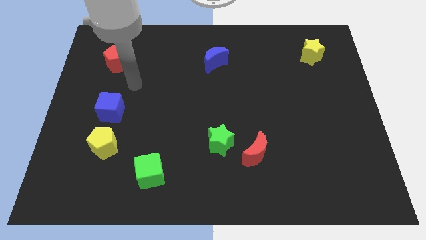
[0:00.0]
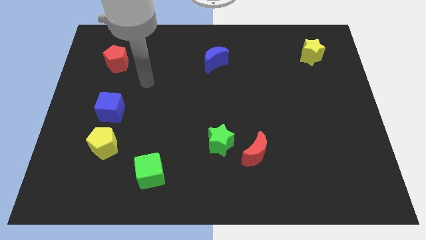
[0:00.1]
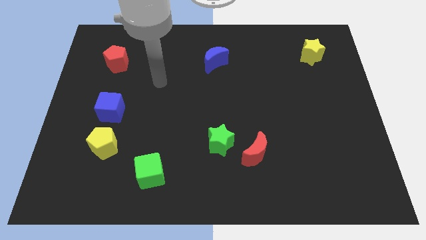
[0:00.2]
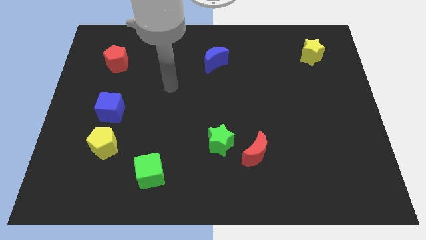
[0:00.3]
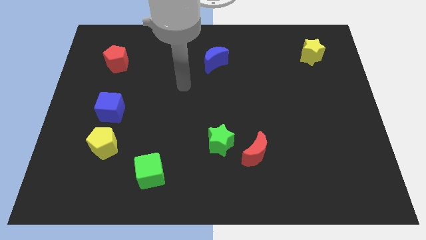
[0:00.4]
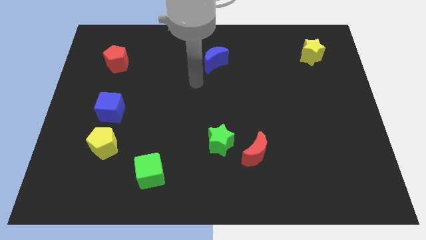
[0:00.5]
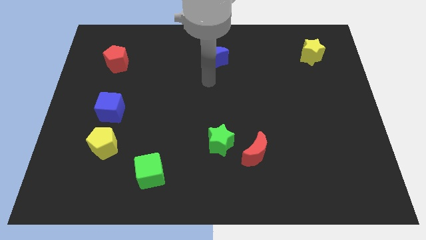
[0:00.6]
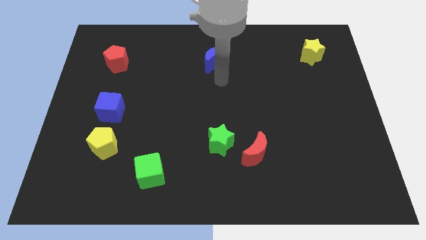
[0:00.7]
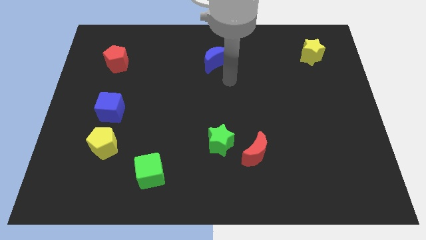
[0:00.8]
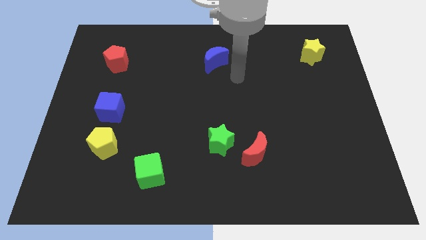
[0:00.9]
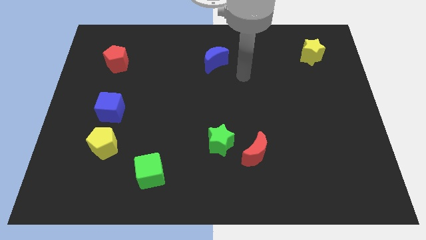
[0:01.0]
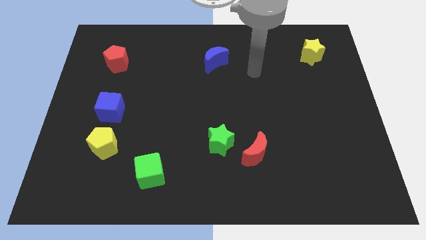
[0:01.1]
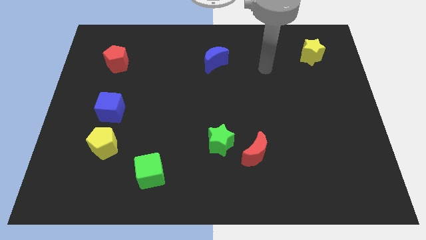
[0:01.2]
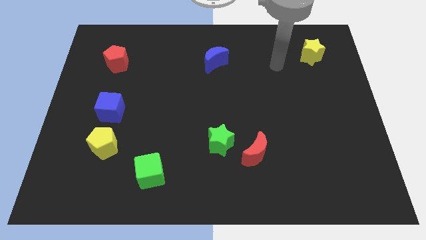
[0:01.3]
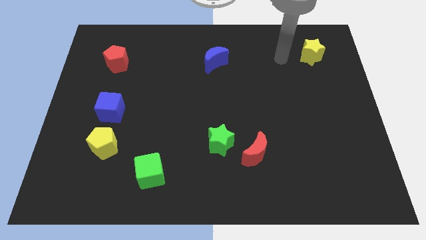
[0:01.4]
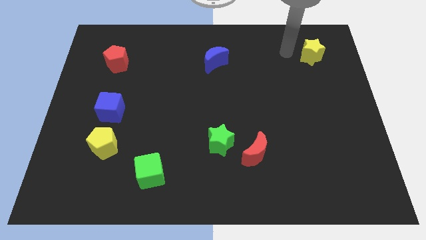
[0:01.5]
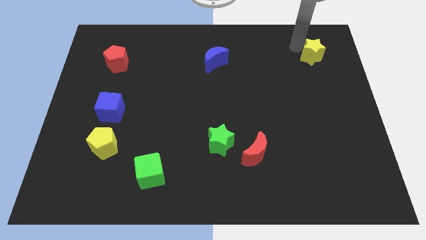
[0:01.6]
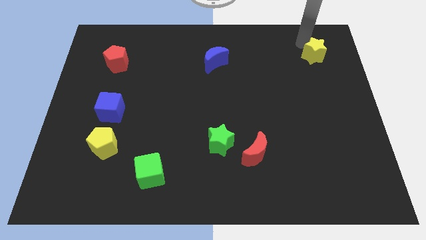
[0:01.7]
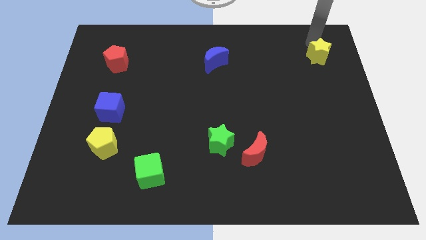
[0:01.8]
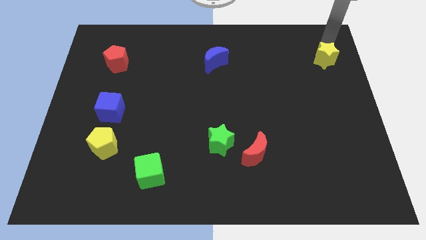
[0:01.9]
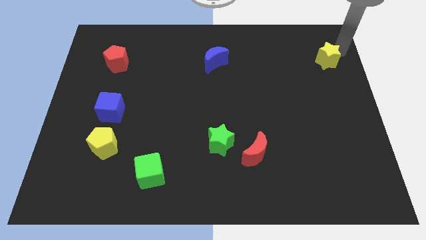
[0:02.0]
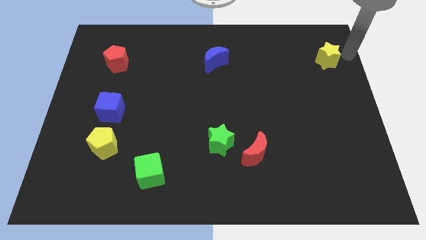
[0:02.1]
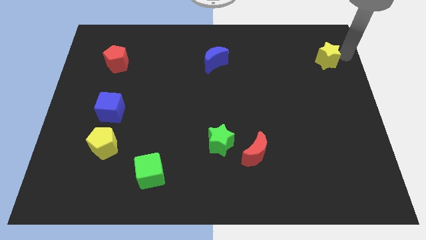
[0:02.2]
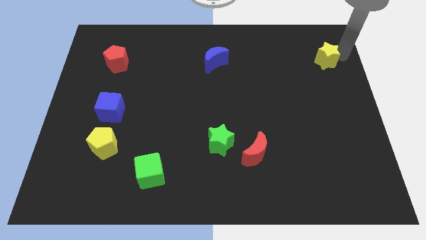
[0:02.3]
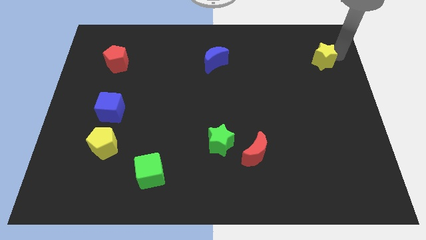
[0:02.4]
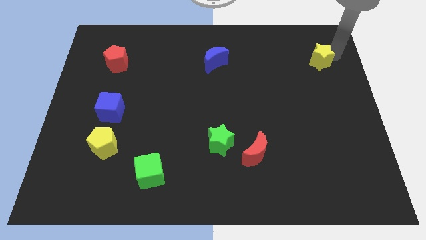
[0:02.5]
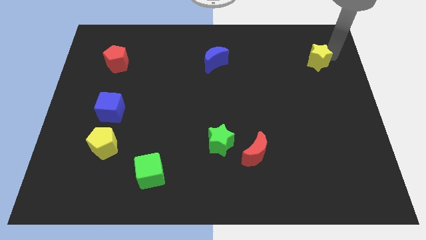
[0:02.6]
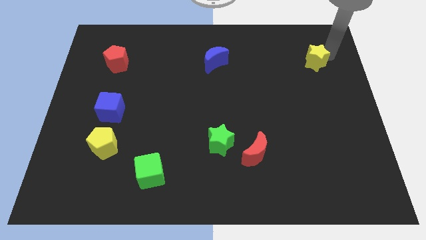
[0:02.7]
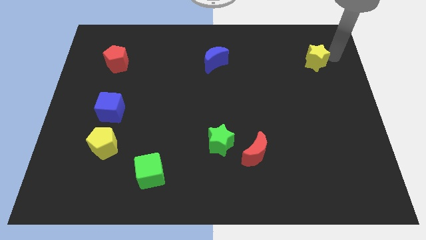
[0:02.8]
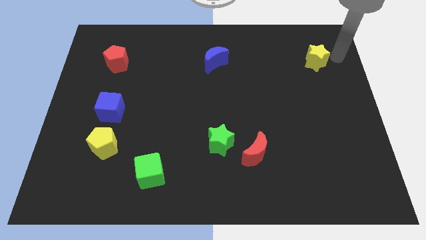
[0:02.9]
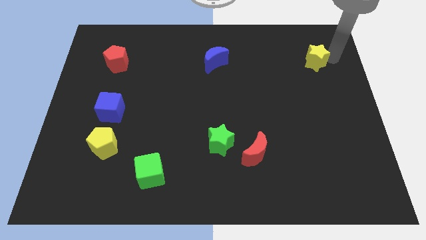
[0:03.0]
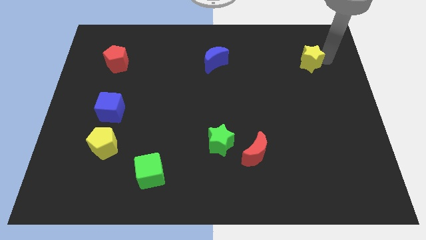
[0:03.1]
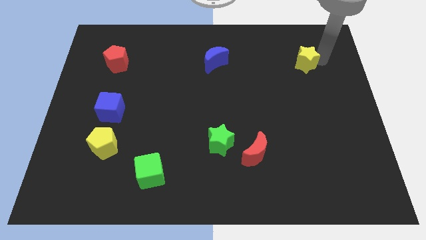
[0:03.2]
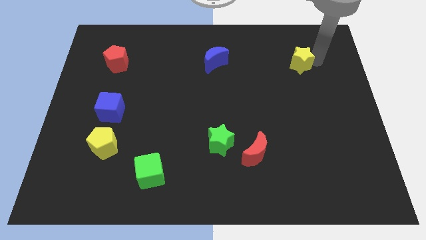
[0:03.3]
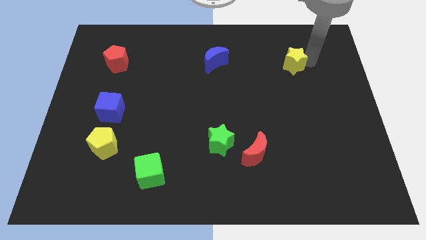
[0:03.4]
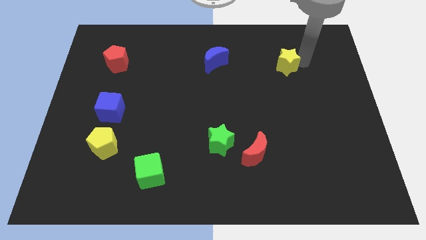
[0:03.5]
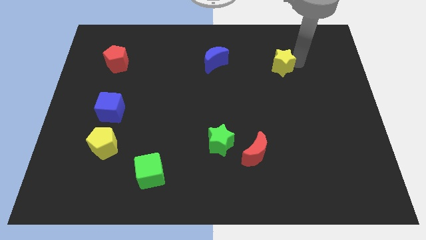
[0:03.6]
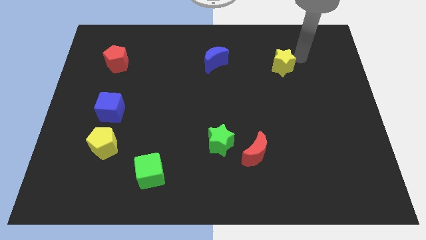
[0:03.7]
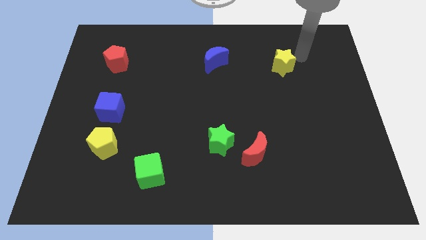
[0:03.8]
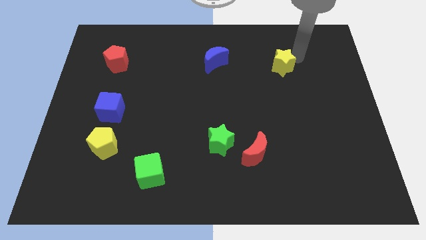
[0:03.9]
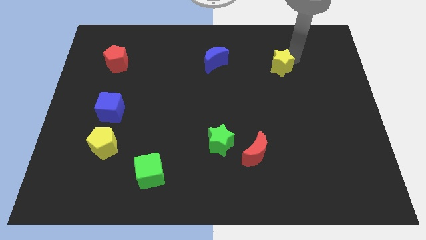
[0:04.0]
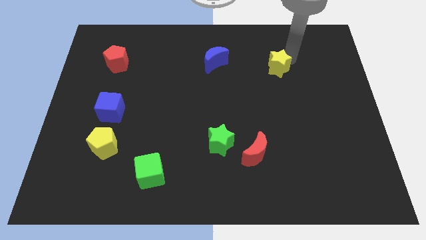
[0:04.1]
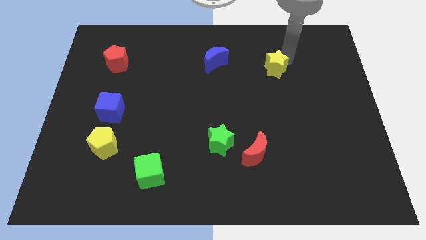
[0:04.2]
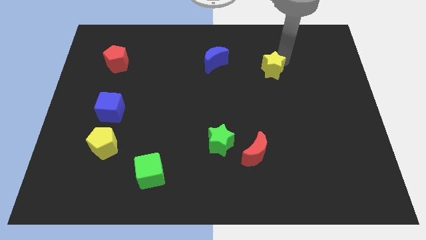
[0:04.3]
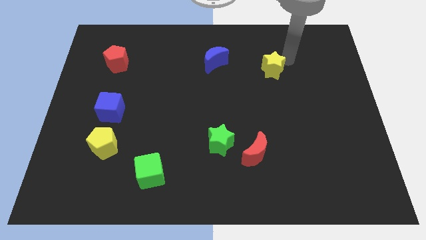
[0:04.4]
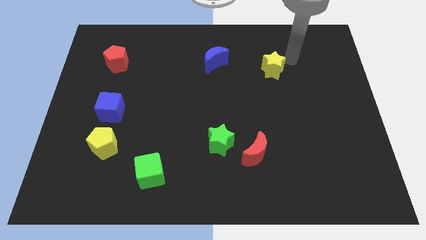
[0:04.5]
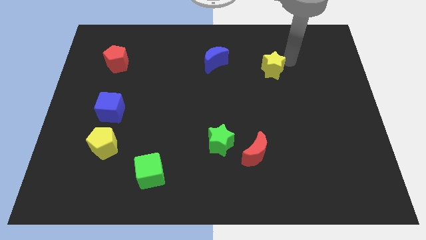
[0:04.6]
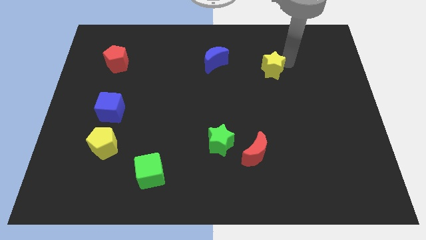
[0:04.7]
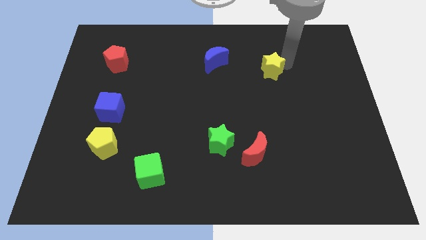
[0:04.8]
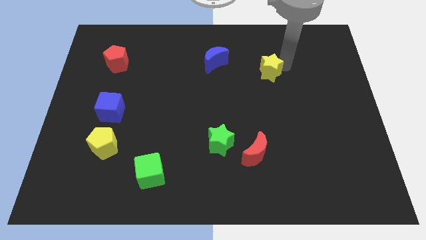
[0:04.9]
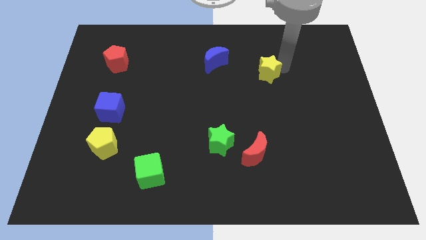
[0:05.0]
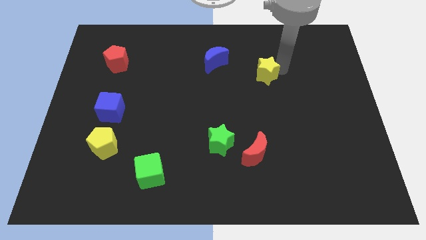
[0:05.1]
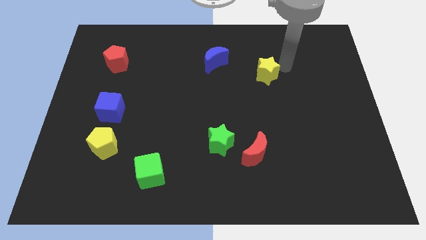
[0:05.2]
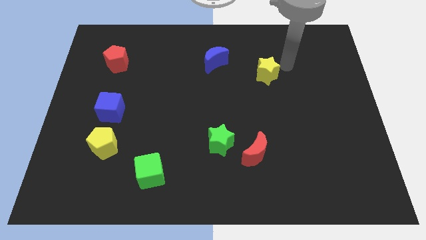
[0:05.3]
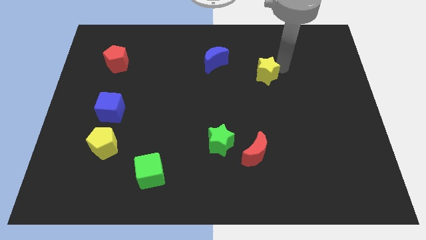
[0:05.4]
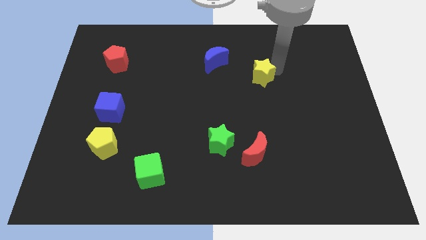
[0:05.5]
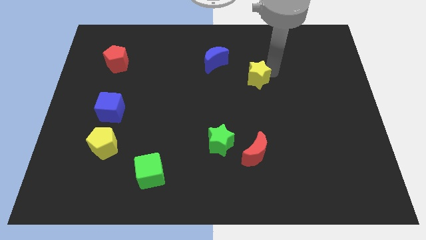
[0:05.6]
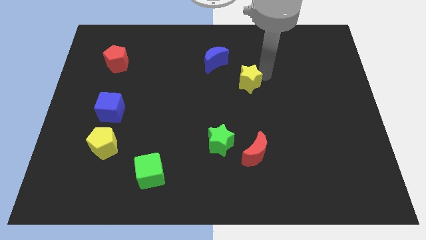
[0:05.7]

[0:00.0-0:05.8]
move the yellow star to the middle

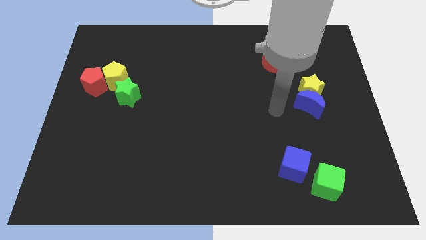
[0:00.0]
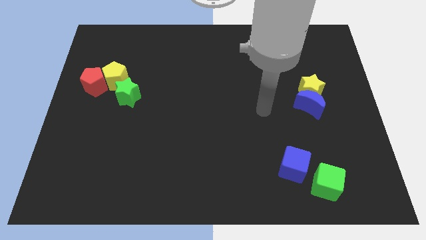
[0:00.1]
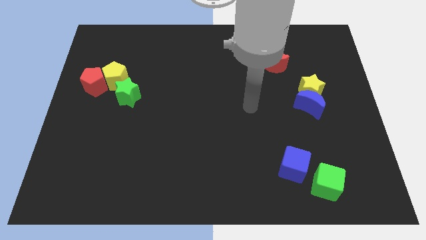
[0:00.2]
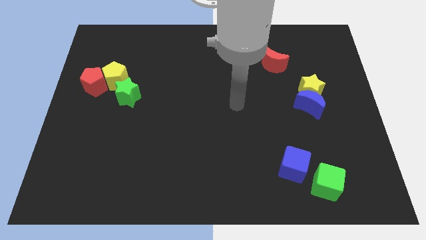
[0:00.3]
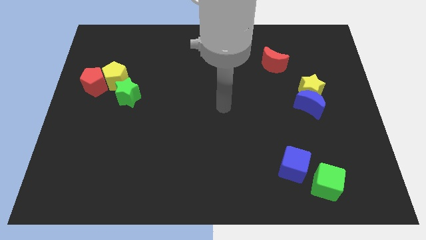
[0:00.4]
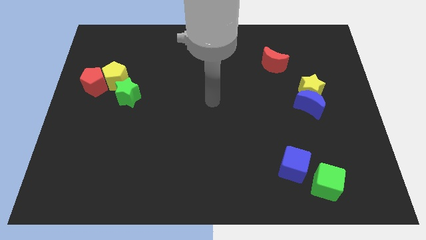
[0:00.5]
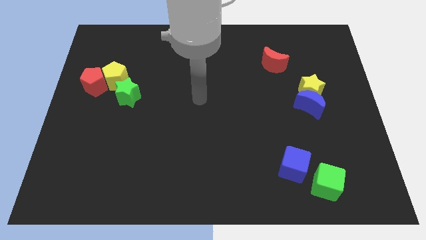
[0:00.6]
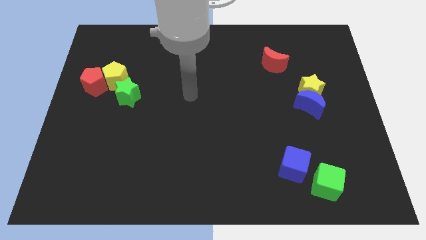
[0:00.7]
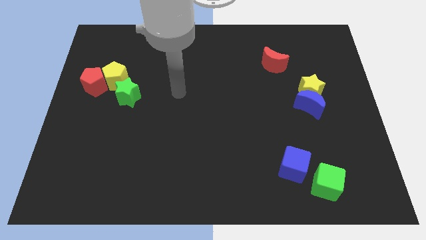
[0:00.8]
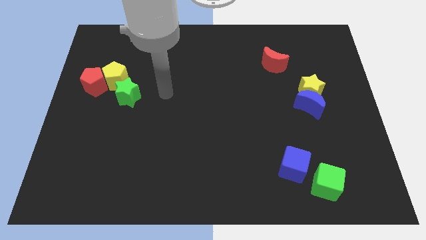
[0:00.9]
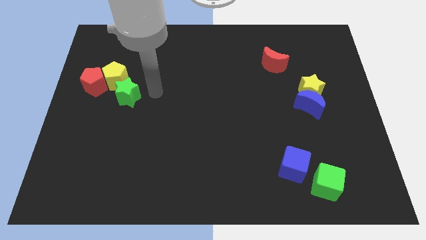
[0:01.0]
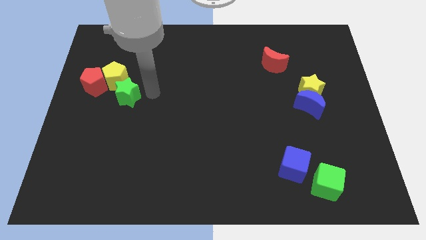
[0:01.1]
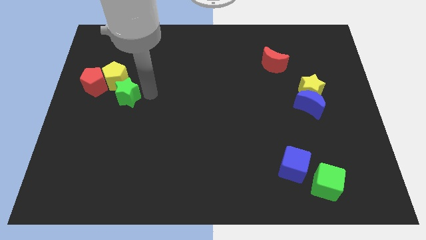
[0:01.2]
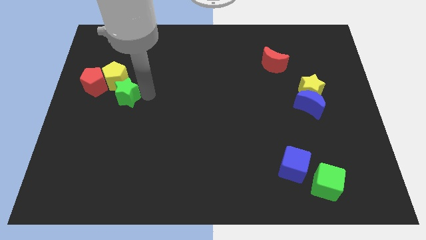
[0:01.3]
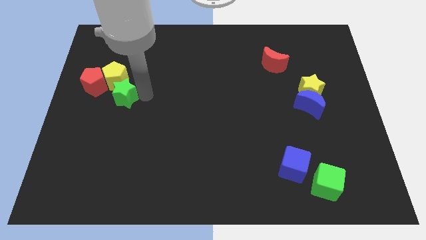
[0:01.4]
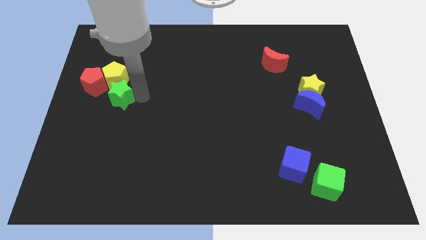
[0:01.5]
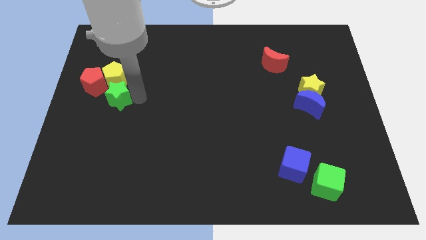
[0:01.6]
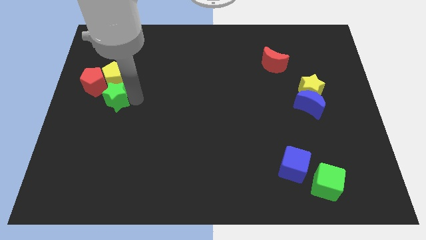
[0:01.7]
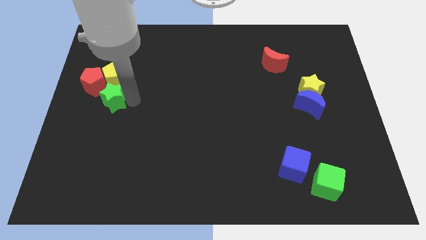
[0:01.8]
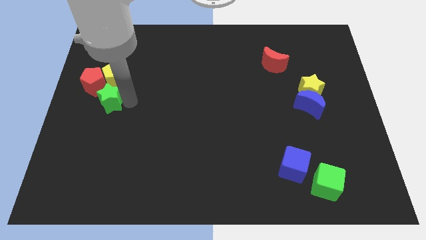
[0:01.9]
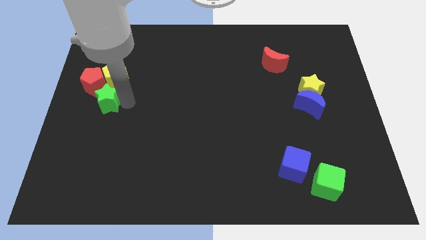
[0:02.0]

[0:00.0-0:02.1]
move the green star to the center left
